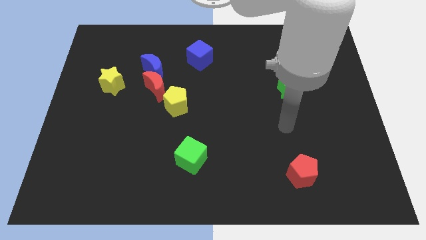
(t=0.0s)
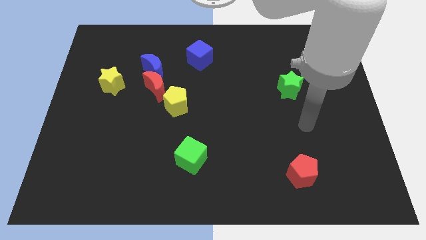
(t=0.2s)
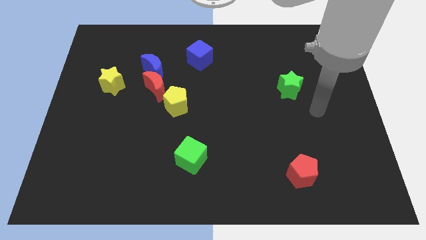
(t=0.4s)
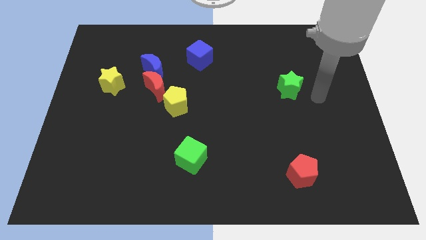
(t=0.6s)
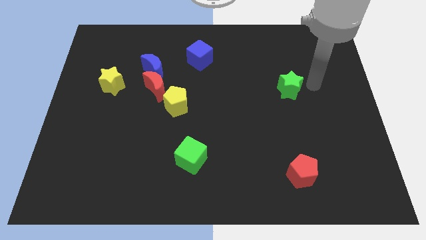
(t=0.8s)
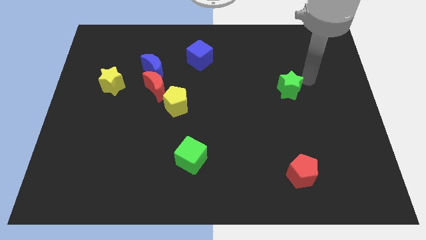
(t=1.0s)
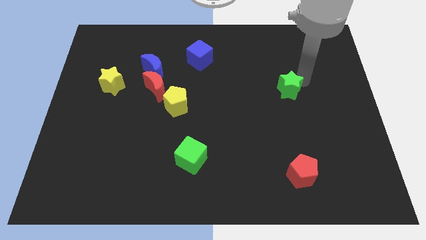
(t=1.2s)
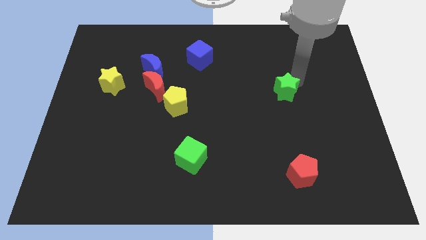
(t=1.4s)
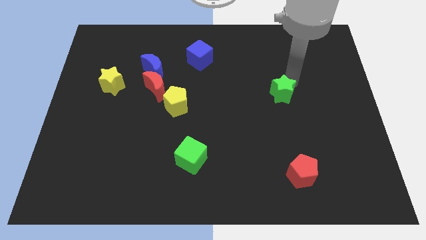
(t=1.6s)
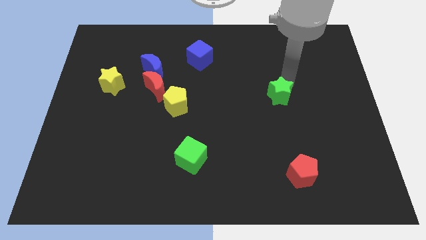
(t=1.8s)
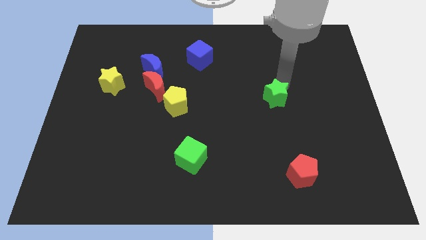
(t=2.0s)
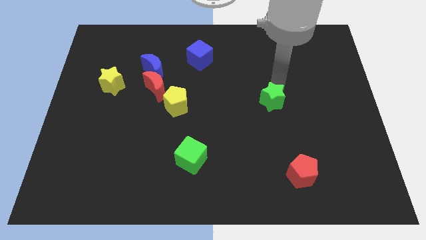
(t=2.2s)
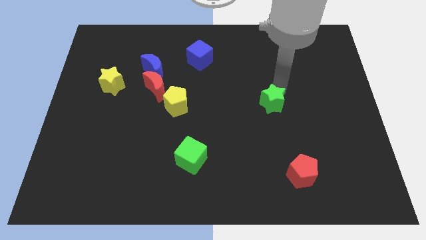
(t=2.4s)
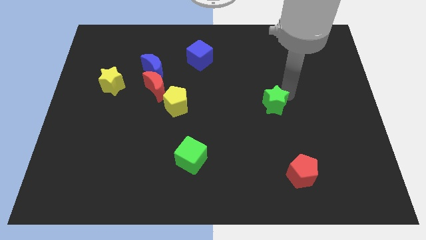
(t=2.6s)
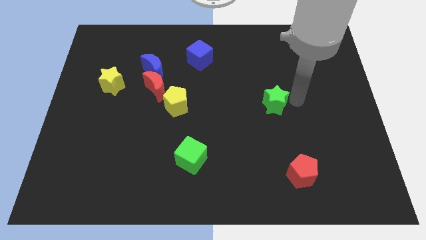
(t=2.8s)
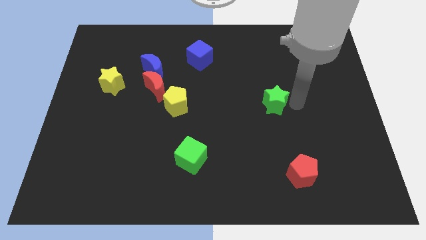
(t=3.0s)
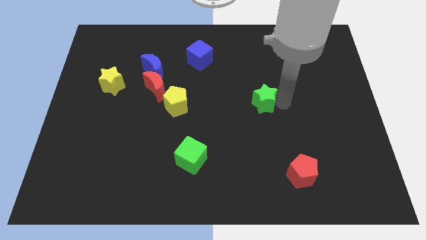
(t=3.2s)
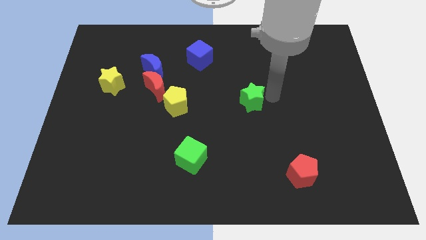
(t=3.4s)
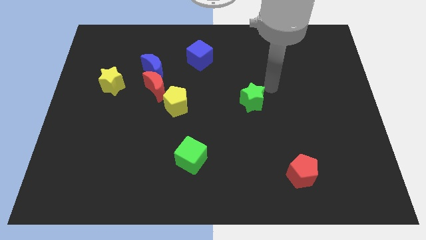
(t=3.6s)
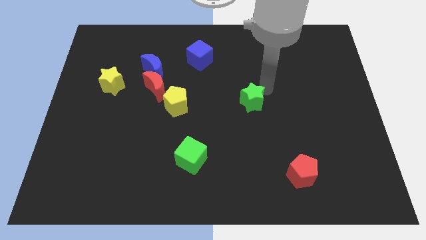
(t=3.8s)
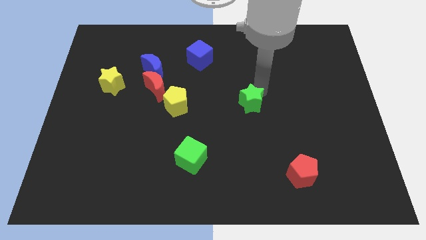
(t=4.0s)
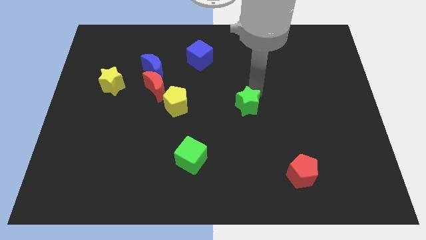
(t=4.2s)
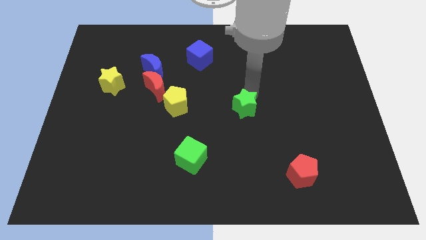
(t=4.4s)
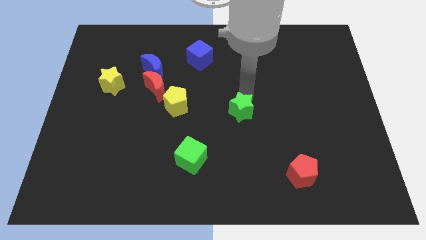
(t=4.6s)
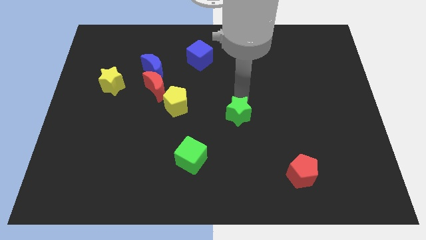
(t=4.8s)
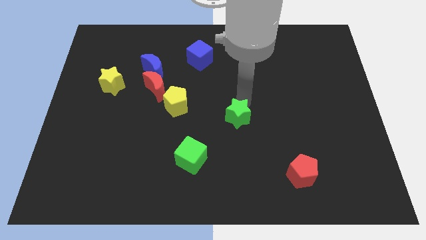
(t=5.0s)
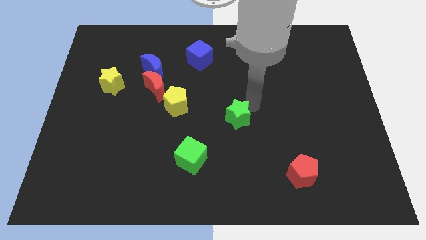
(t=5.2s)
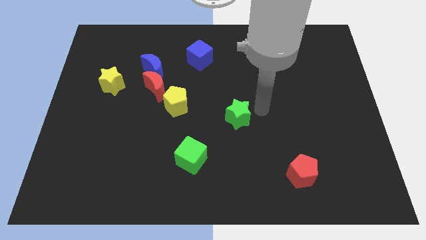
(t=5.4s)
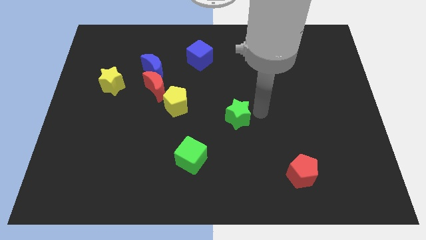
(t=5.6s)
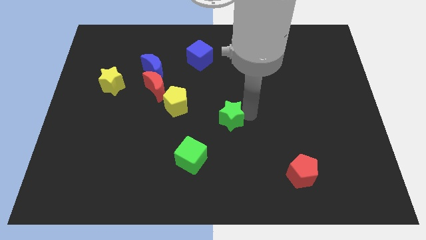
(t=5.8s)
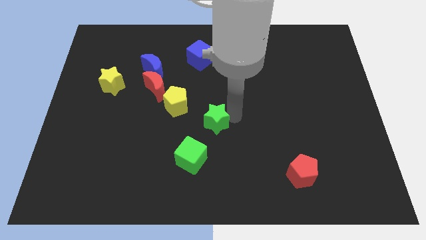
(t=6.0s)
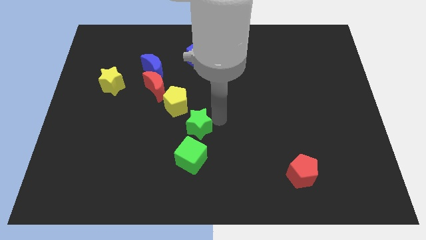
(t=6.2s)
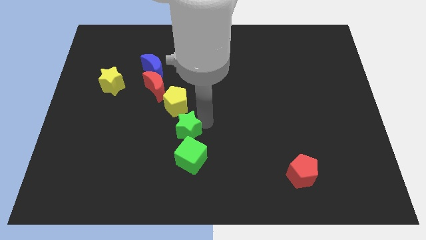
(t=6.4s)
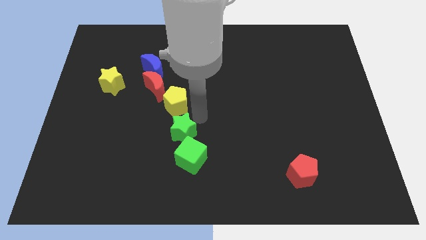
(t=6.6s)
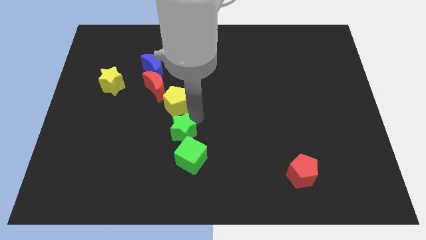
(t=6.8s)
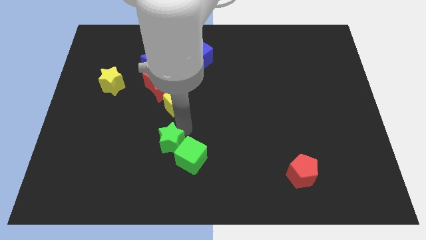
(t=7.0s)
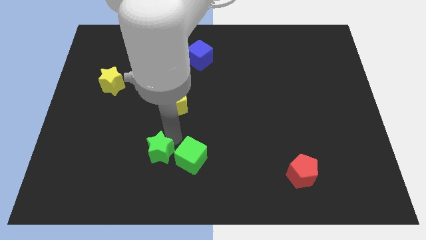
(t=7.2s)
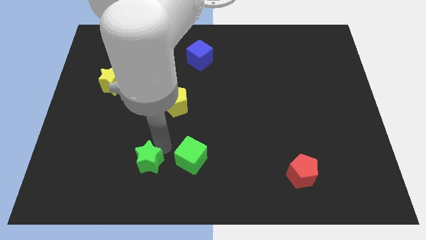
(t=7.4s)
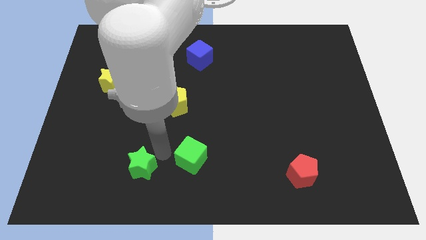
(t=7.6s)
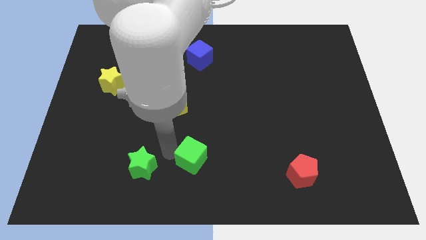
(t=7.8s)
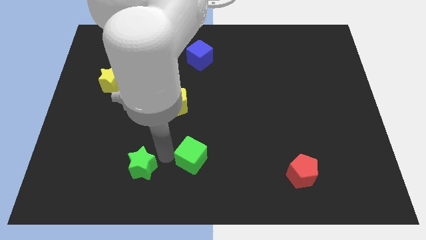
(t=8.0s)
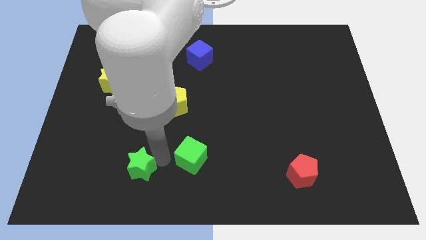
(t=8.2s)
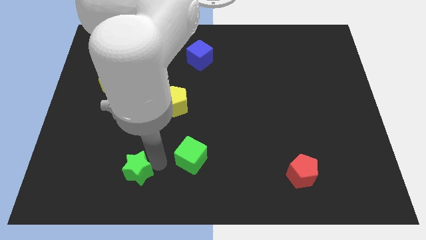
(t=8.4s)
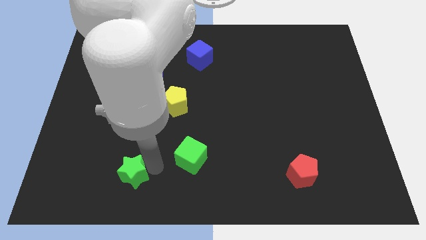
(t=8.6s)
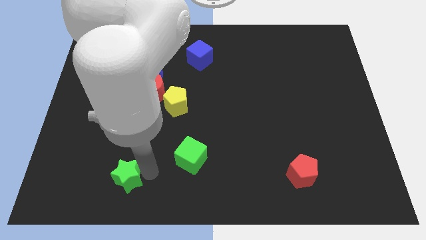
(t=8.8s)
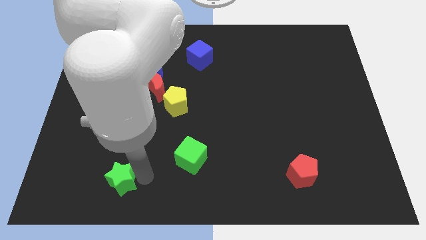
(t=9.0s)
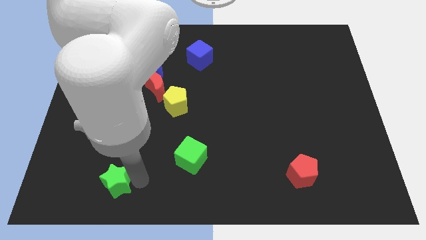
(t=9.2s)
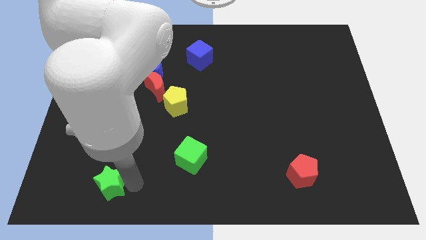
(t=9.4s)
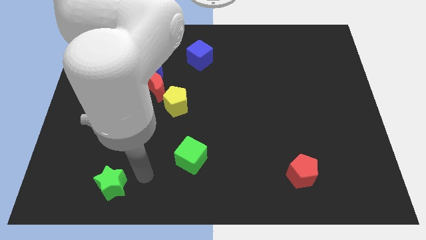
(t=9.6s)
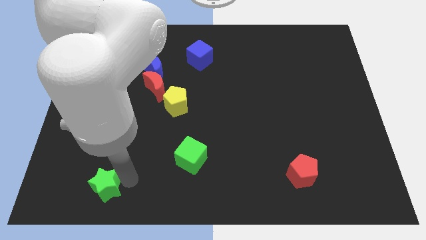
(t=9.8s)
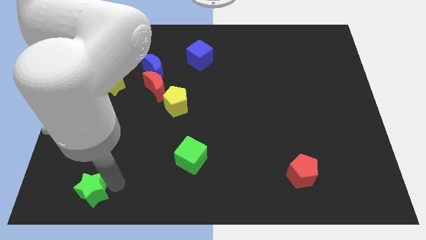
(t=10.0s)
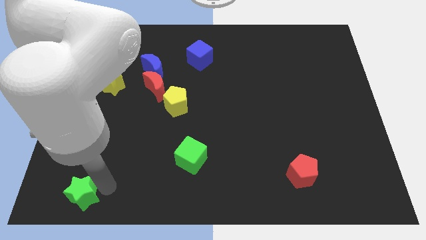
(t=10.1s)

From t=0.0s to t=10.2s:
push the green star to the lower left corner

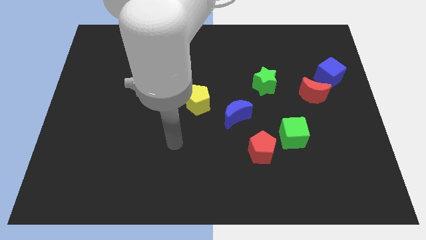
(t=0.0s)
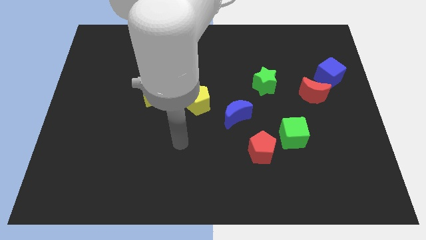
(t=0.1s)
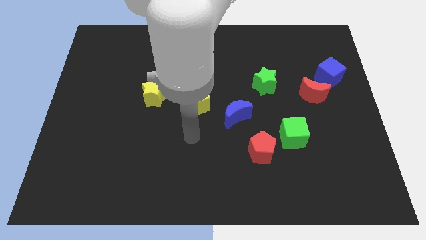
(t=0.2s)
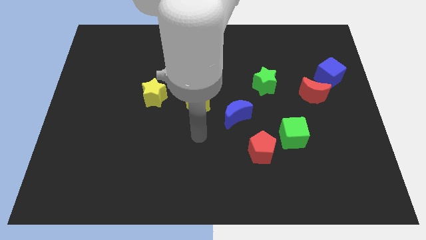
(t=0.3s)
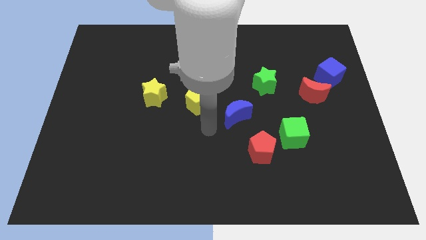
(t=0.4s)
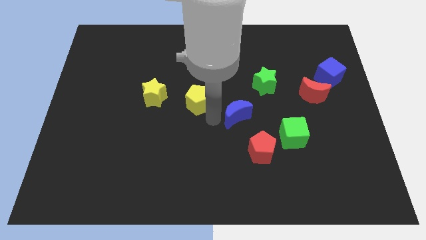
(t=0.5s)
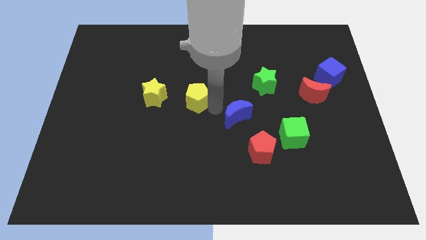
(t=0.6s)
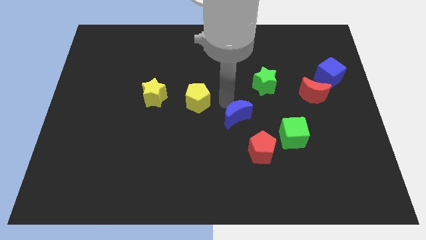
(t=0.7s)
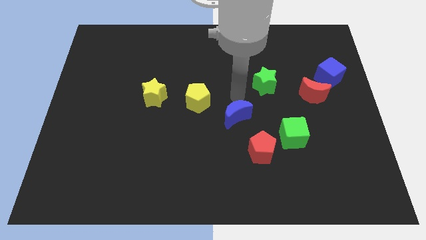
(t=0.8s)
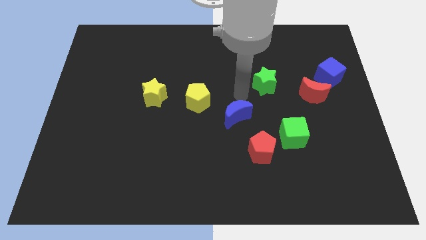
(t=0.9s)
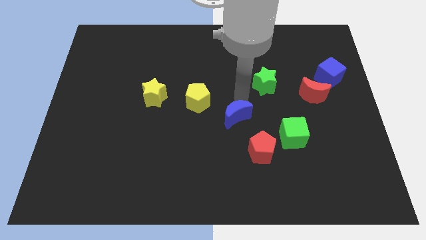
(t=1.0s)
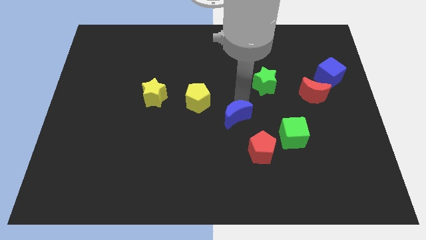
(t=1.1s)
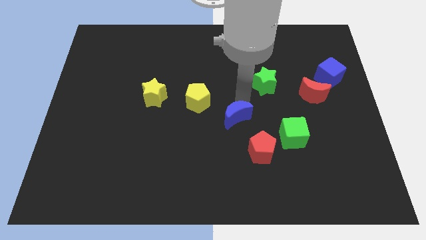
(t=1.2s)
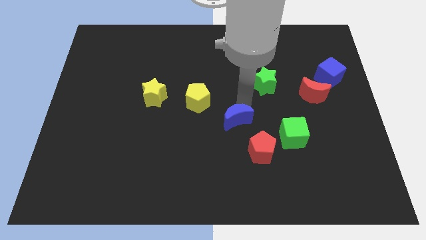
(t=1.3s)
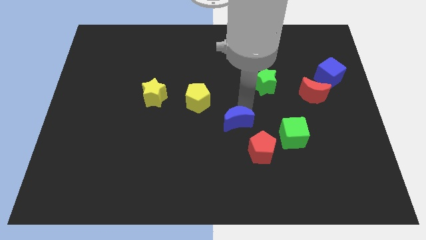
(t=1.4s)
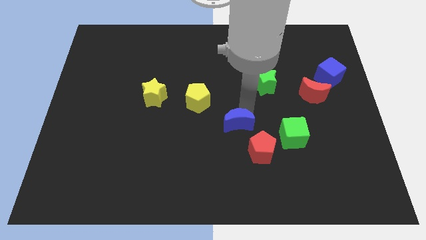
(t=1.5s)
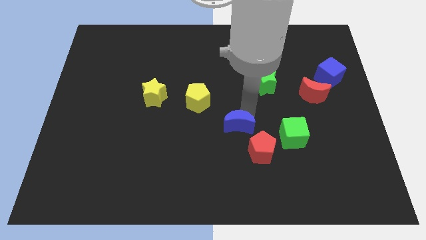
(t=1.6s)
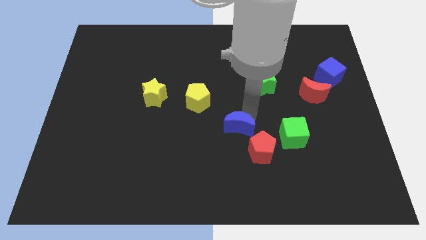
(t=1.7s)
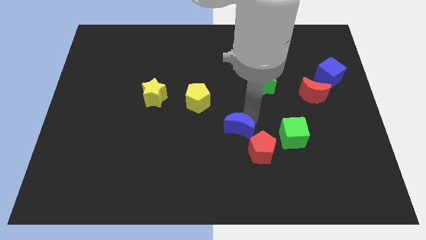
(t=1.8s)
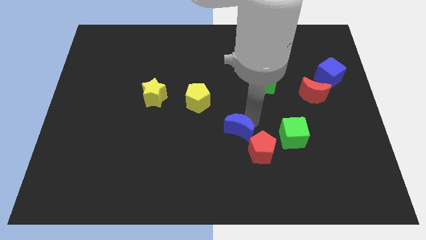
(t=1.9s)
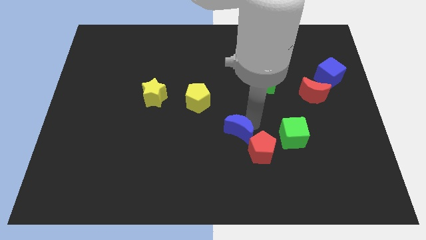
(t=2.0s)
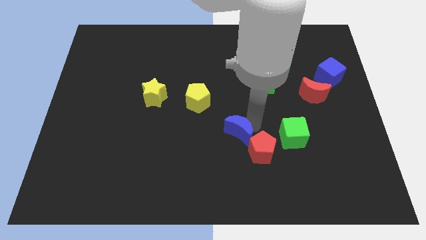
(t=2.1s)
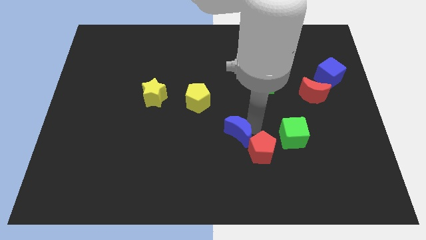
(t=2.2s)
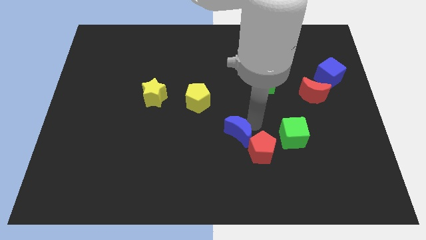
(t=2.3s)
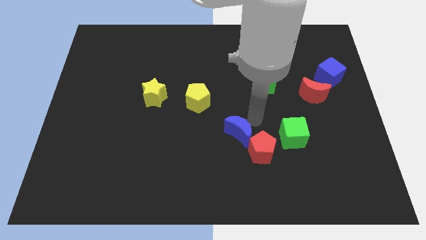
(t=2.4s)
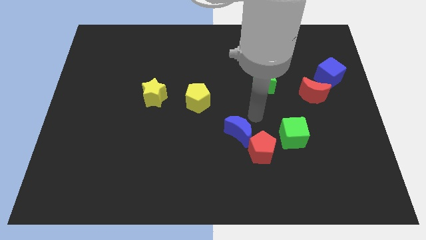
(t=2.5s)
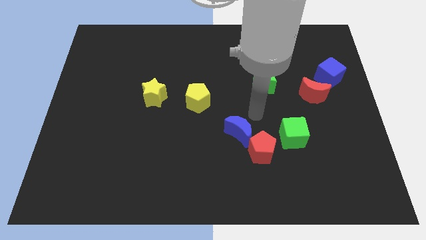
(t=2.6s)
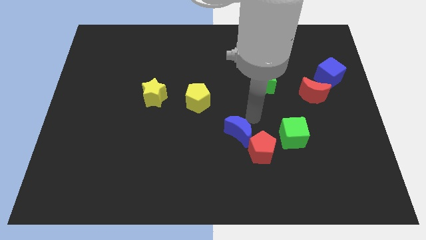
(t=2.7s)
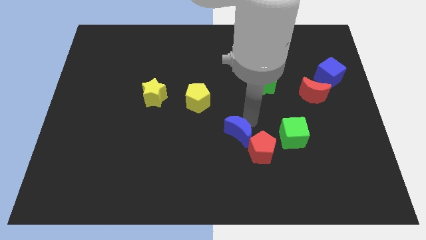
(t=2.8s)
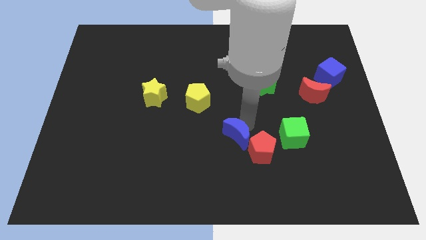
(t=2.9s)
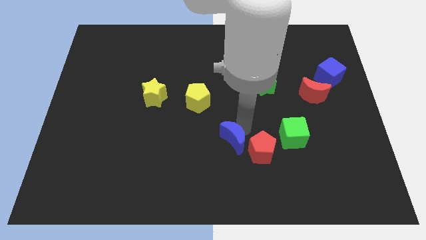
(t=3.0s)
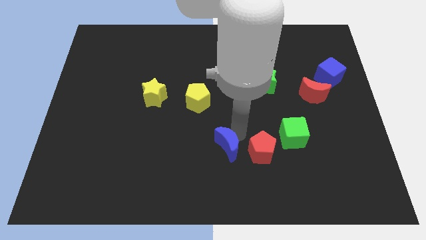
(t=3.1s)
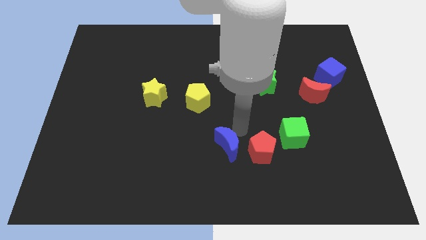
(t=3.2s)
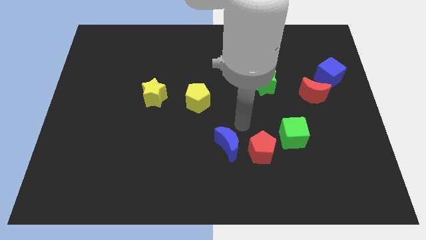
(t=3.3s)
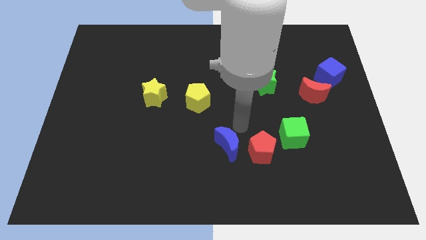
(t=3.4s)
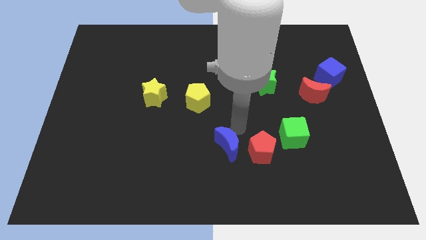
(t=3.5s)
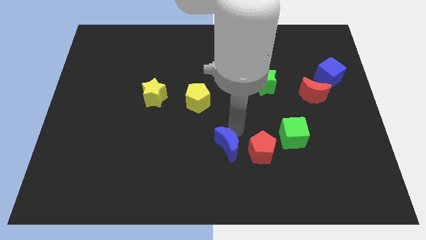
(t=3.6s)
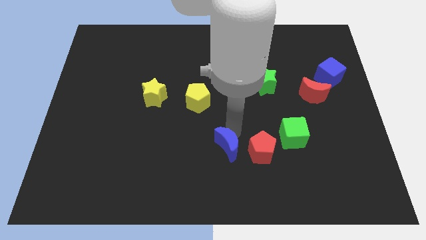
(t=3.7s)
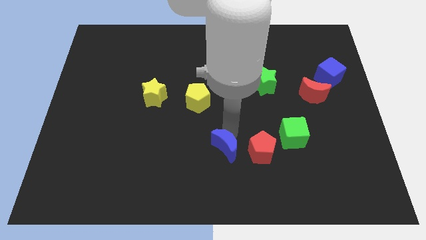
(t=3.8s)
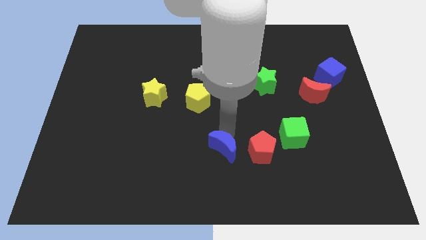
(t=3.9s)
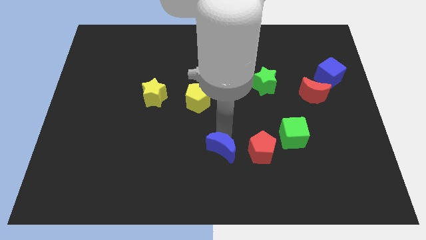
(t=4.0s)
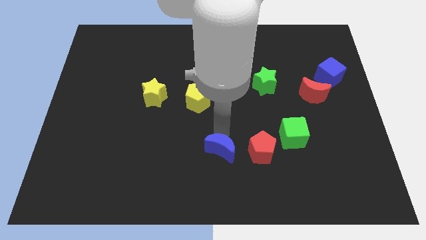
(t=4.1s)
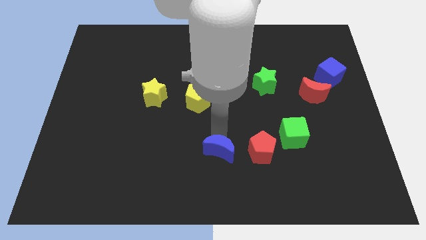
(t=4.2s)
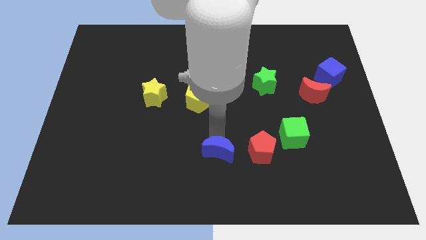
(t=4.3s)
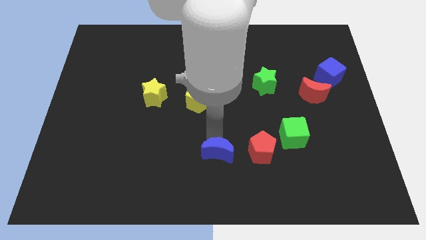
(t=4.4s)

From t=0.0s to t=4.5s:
slide the blue moon to the bottom
